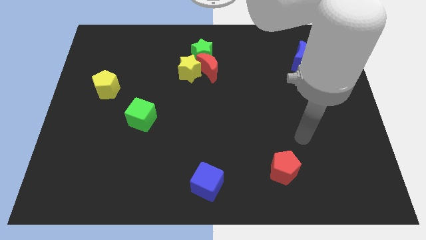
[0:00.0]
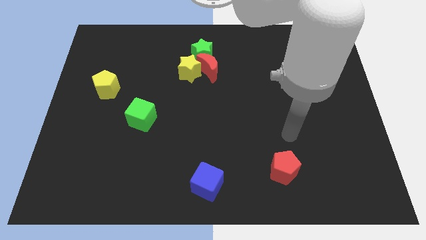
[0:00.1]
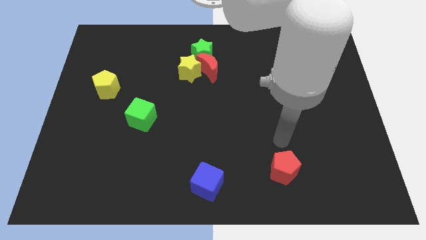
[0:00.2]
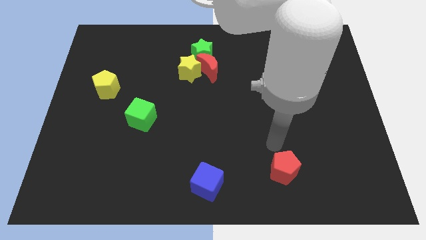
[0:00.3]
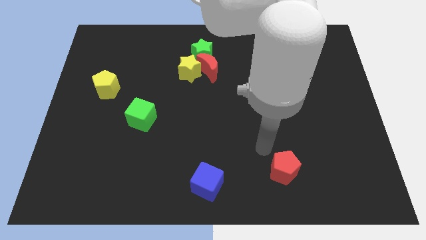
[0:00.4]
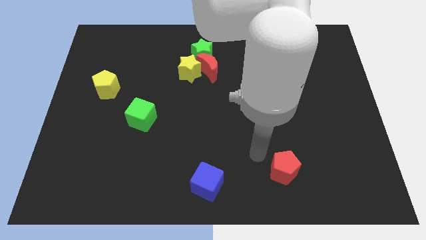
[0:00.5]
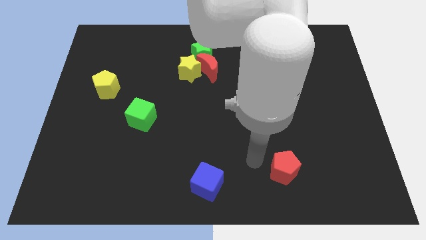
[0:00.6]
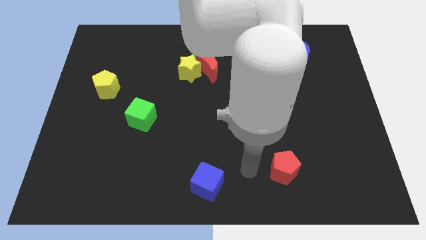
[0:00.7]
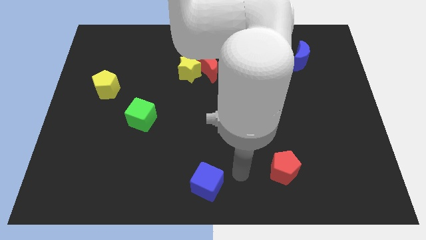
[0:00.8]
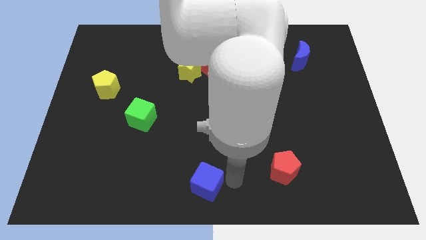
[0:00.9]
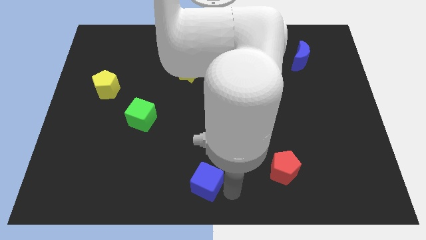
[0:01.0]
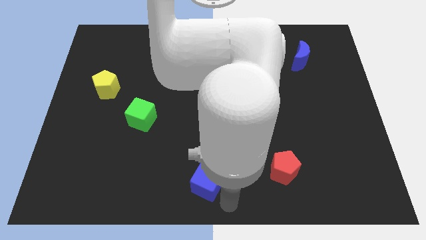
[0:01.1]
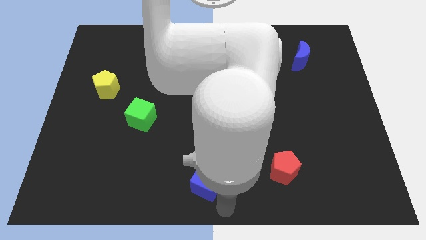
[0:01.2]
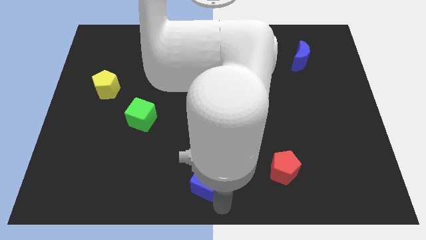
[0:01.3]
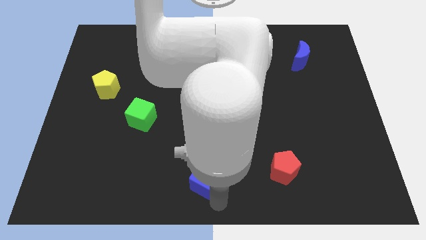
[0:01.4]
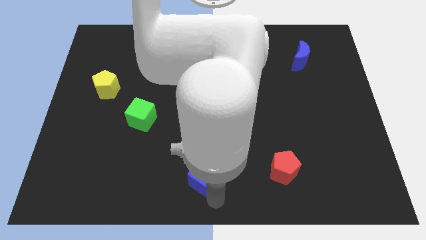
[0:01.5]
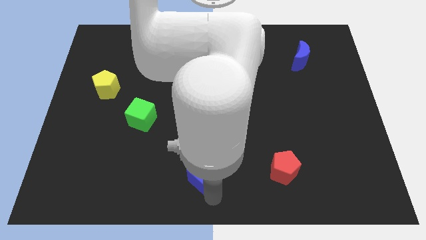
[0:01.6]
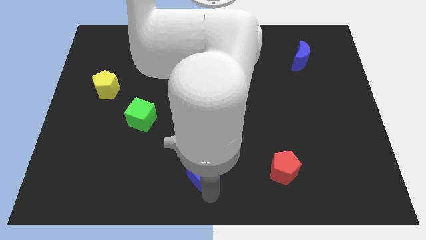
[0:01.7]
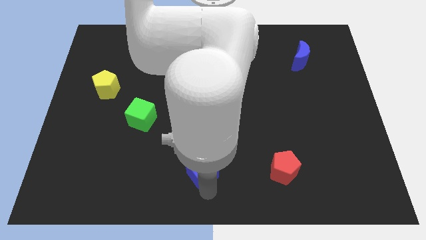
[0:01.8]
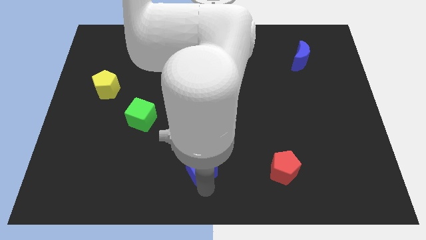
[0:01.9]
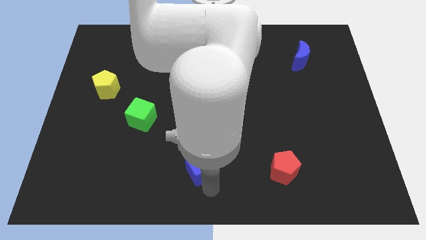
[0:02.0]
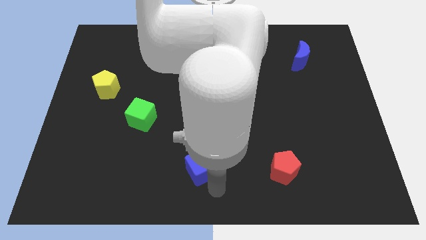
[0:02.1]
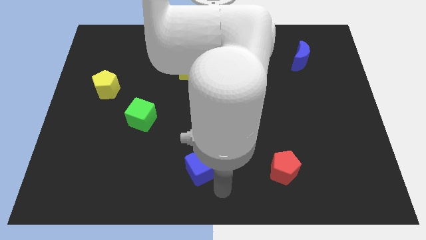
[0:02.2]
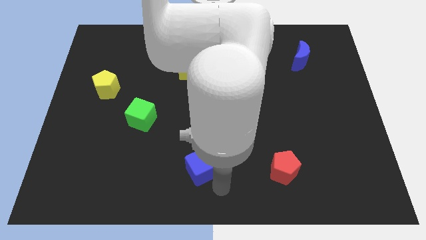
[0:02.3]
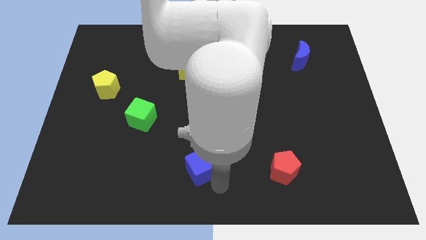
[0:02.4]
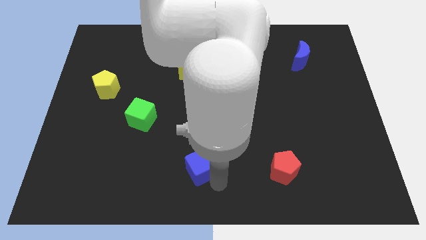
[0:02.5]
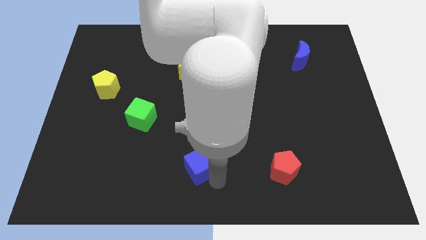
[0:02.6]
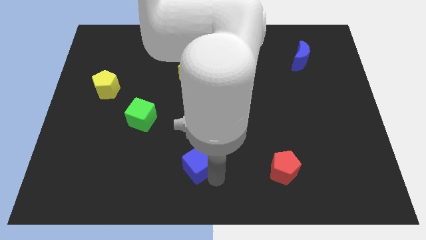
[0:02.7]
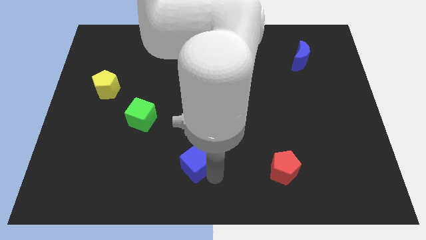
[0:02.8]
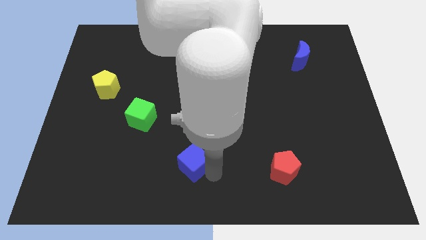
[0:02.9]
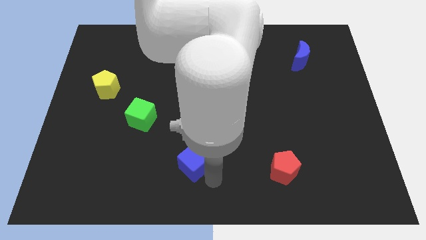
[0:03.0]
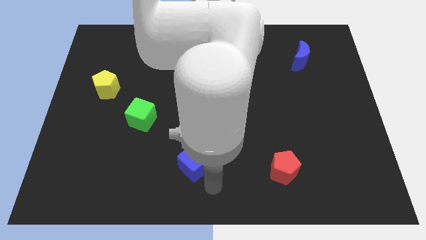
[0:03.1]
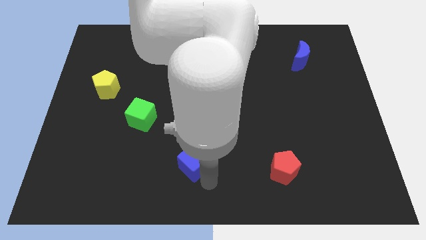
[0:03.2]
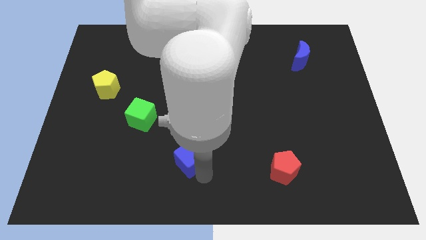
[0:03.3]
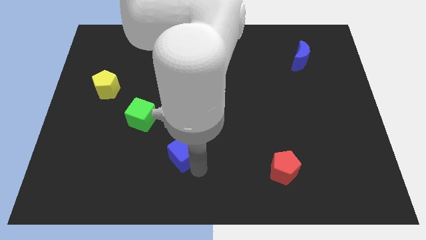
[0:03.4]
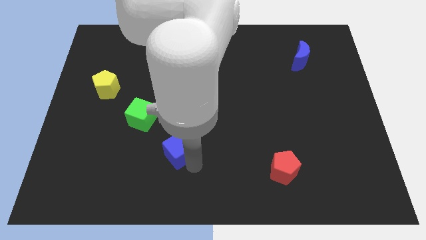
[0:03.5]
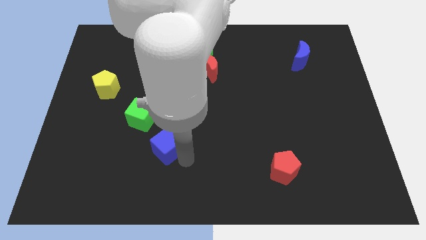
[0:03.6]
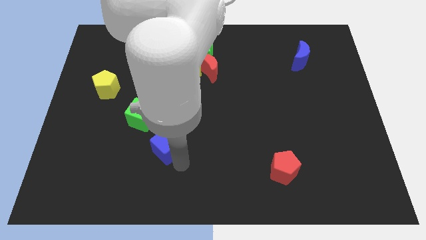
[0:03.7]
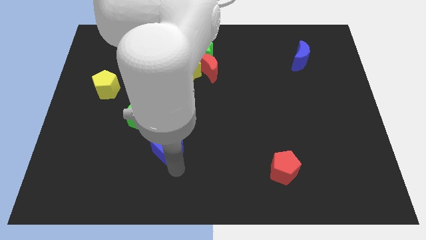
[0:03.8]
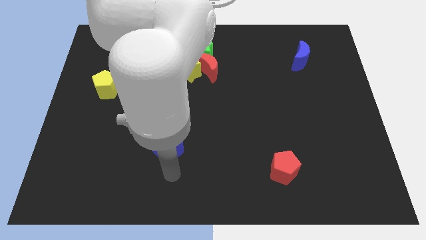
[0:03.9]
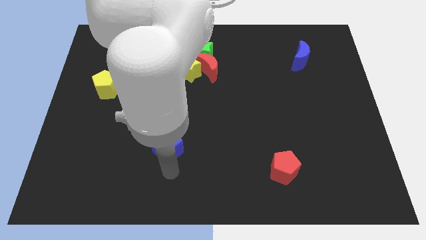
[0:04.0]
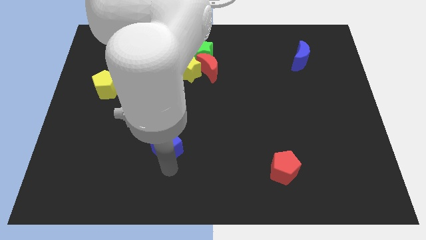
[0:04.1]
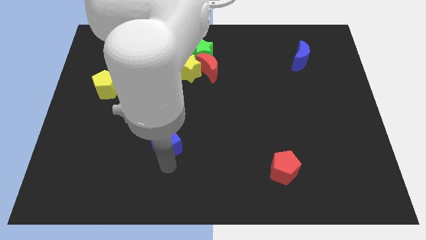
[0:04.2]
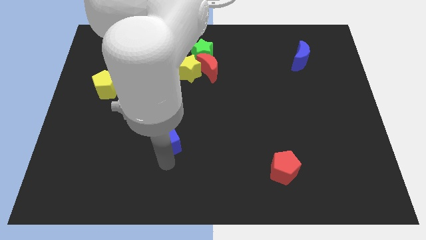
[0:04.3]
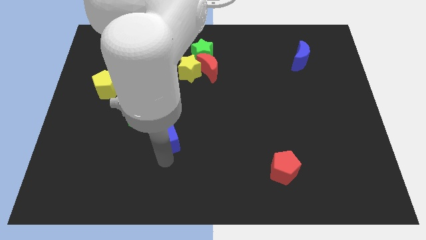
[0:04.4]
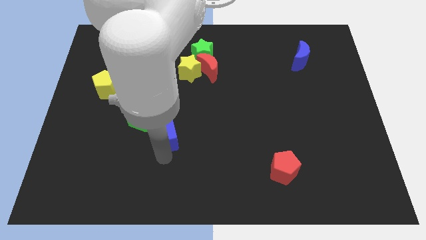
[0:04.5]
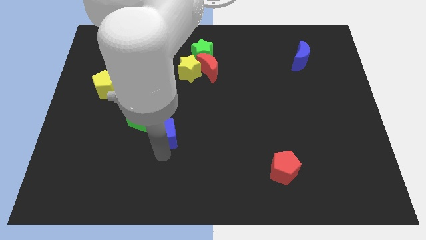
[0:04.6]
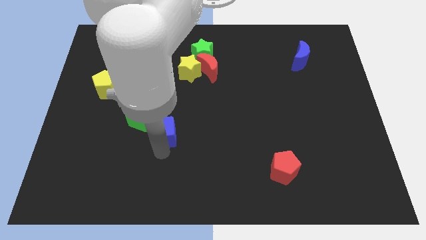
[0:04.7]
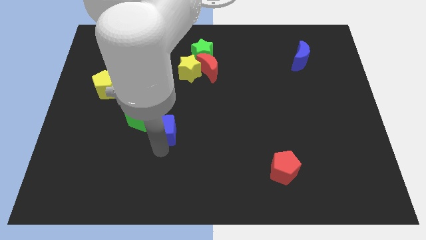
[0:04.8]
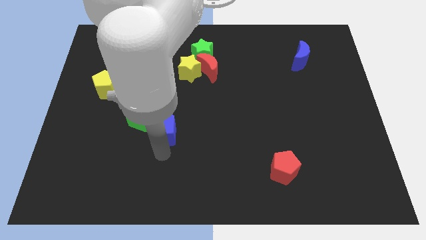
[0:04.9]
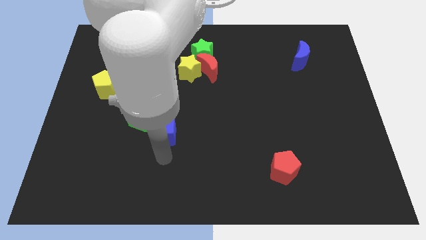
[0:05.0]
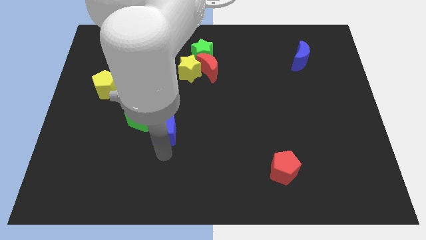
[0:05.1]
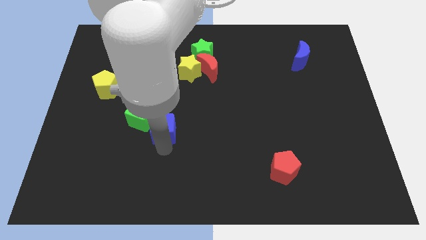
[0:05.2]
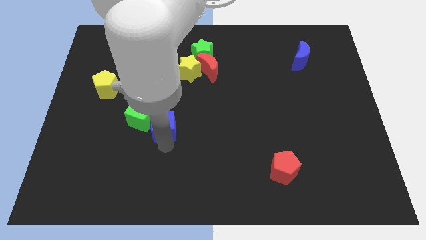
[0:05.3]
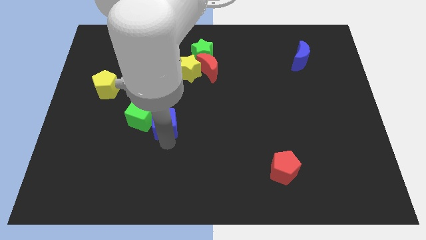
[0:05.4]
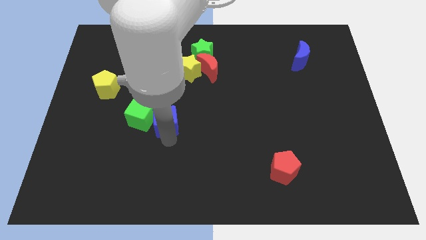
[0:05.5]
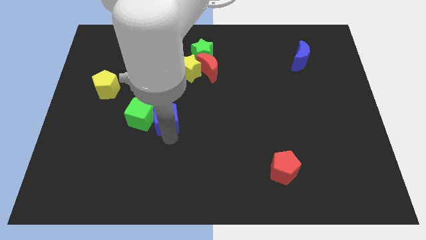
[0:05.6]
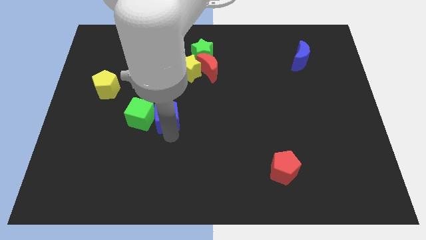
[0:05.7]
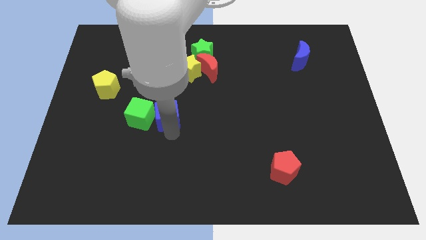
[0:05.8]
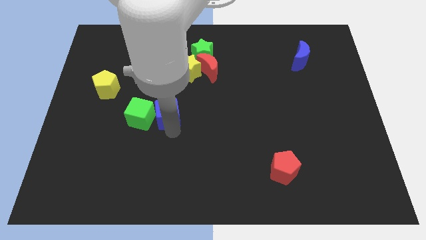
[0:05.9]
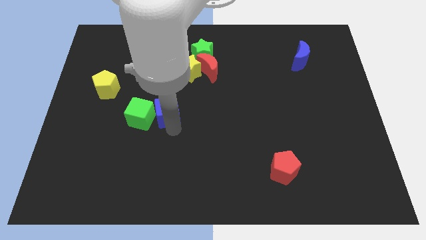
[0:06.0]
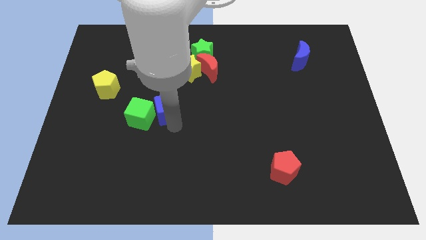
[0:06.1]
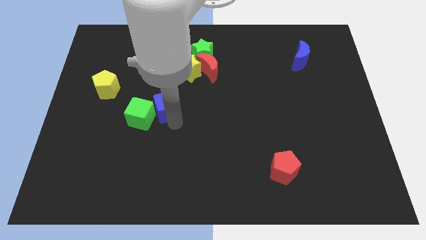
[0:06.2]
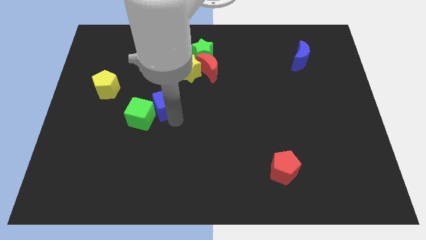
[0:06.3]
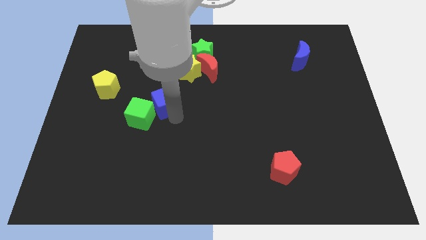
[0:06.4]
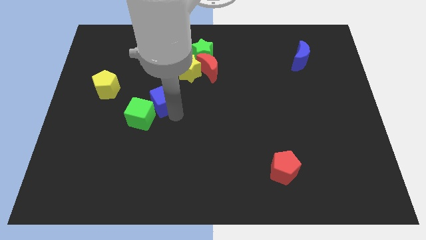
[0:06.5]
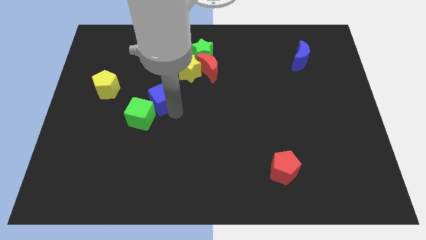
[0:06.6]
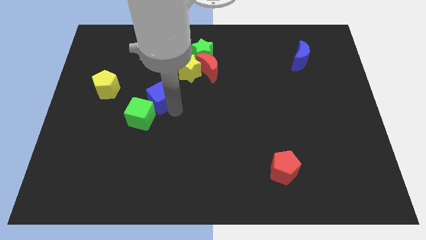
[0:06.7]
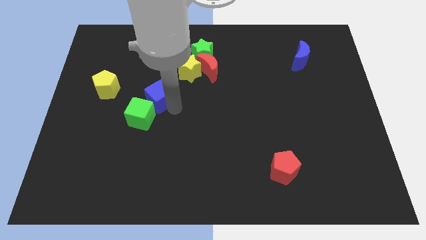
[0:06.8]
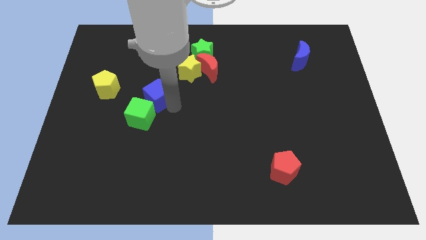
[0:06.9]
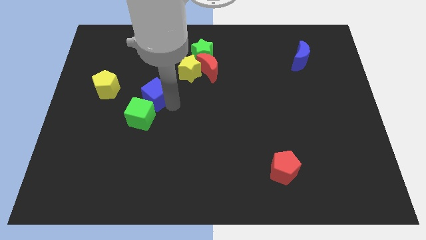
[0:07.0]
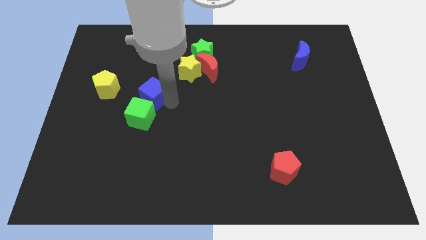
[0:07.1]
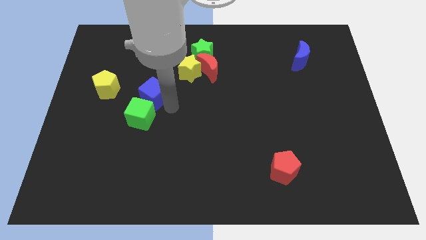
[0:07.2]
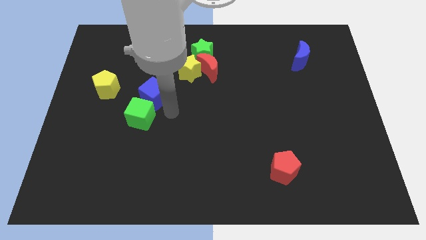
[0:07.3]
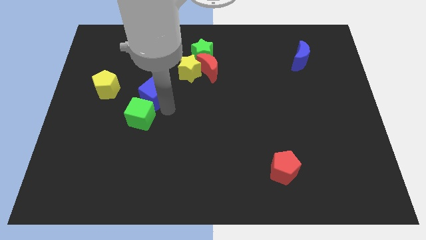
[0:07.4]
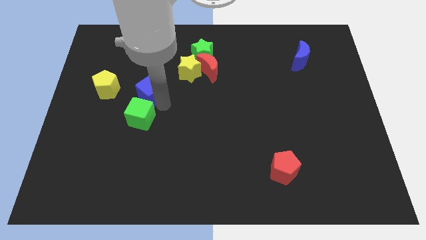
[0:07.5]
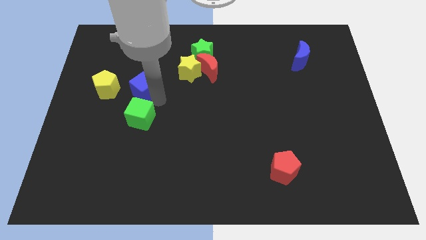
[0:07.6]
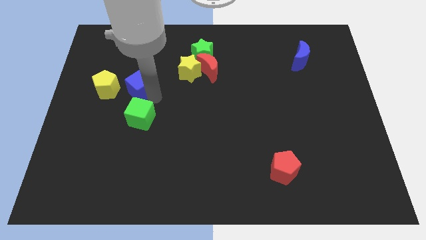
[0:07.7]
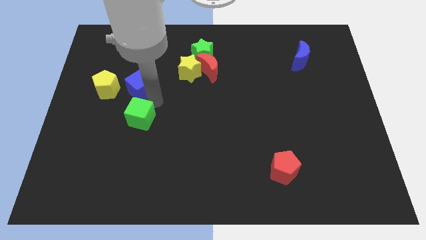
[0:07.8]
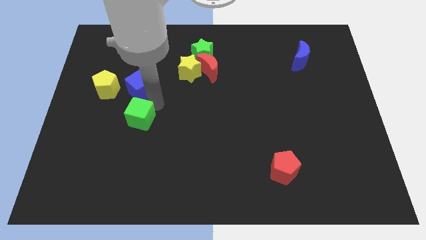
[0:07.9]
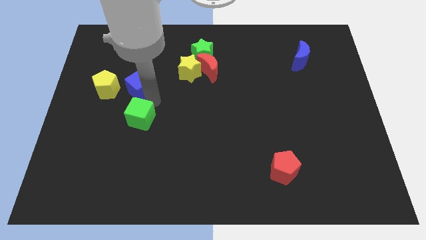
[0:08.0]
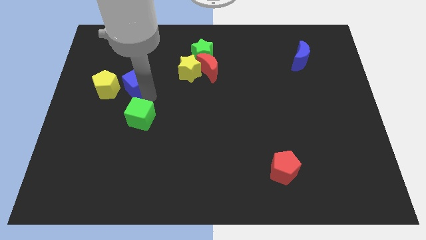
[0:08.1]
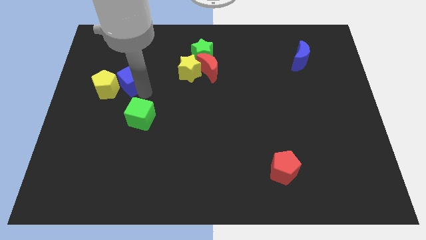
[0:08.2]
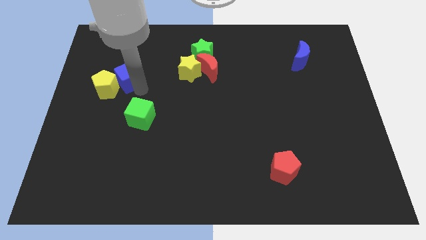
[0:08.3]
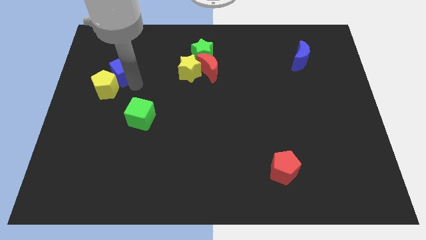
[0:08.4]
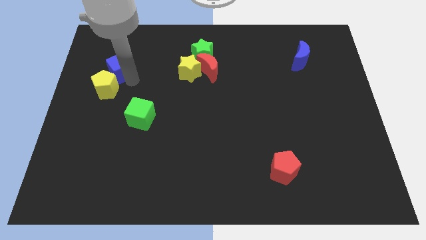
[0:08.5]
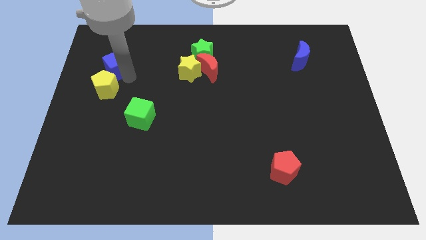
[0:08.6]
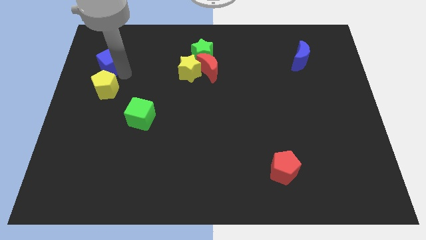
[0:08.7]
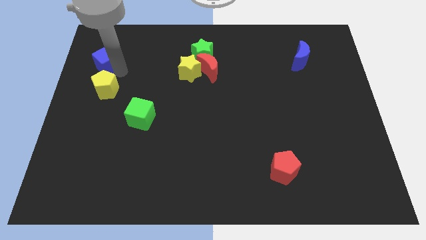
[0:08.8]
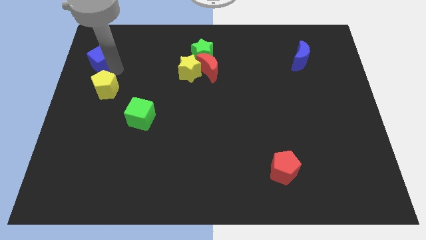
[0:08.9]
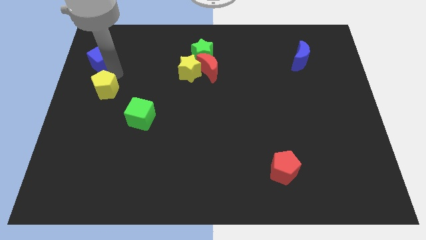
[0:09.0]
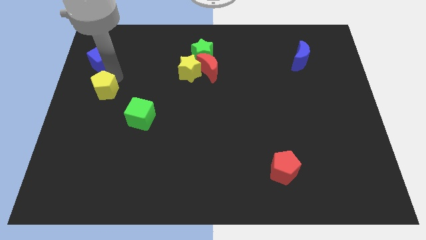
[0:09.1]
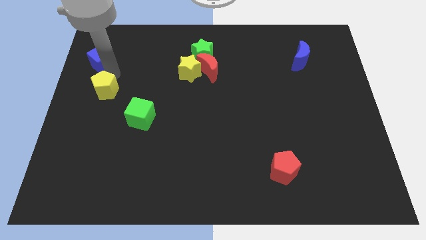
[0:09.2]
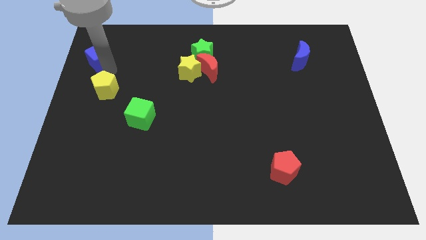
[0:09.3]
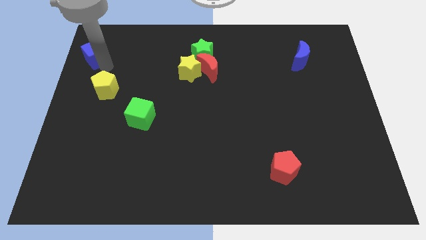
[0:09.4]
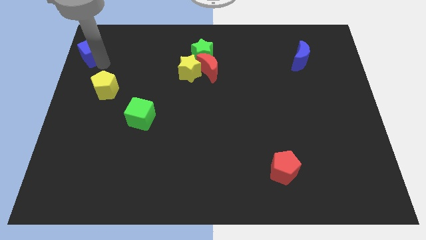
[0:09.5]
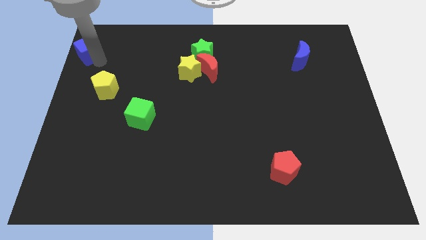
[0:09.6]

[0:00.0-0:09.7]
slide the blue cube to the upper left corner
